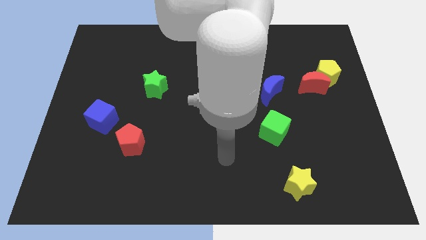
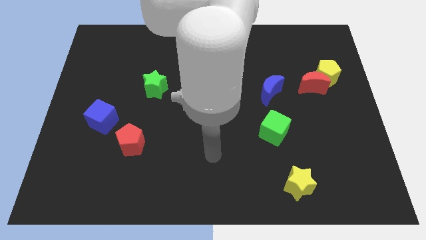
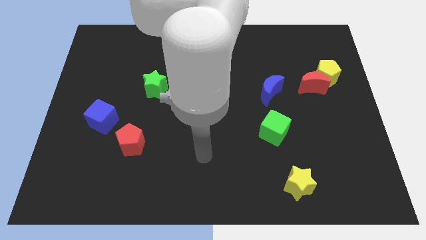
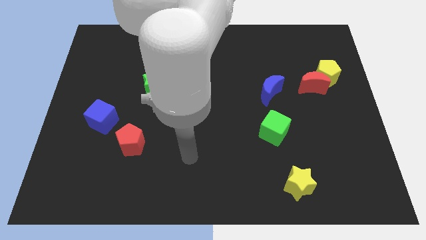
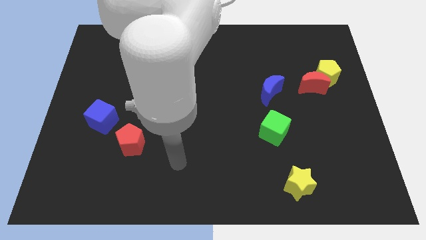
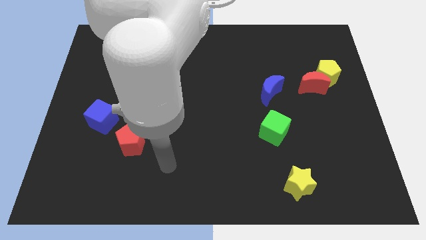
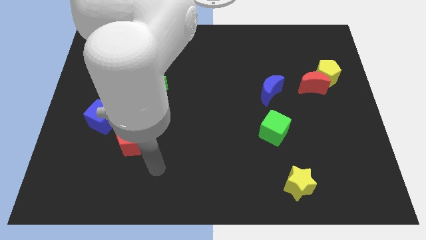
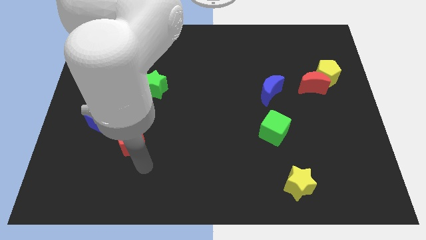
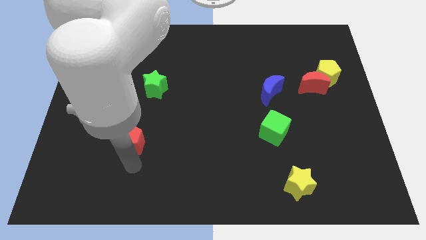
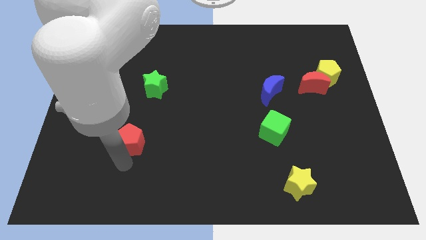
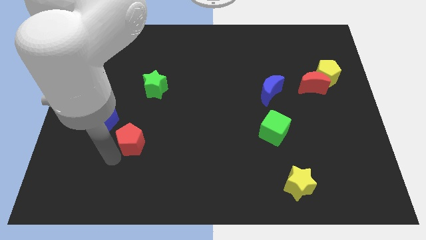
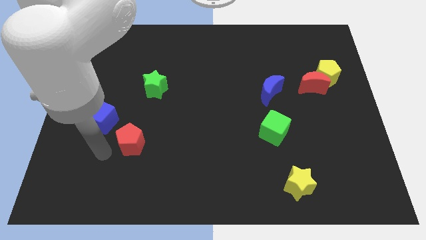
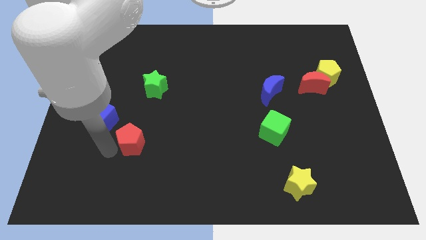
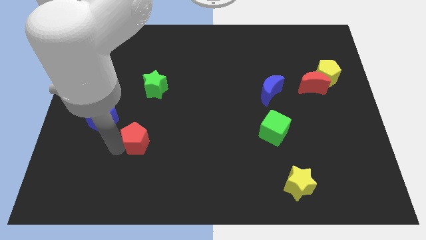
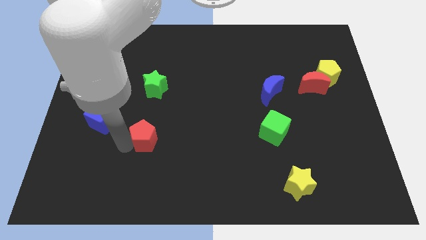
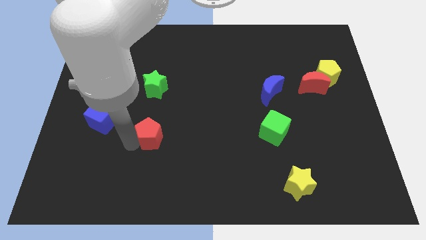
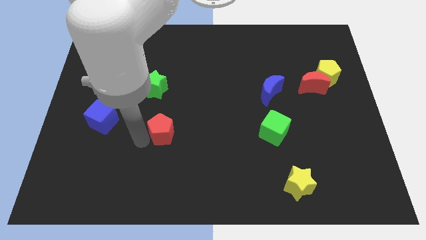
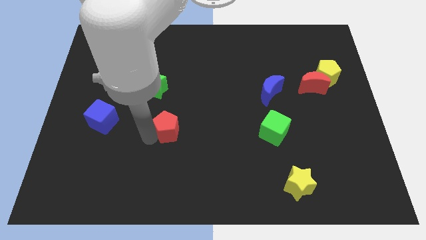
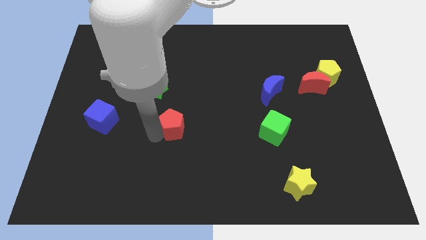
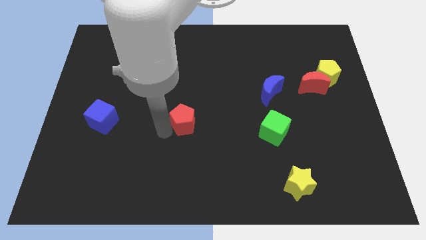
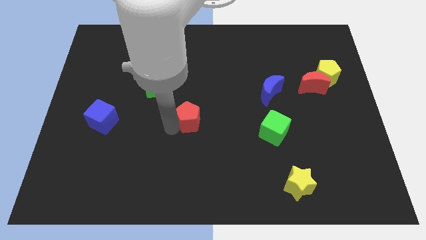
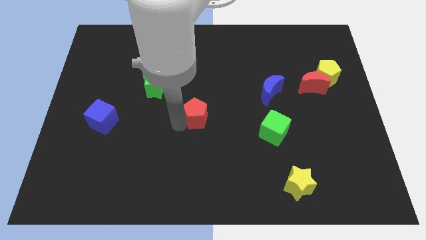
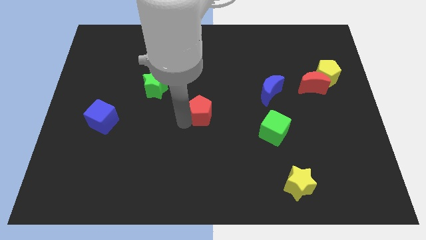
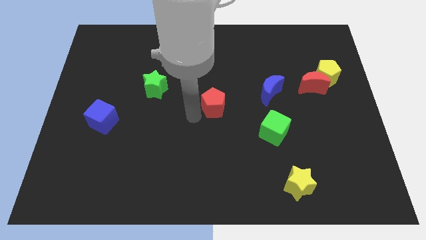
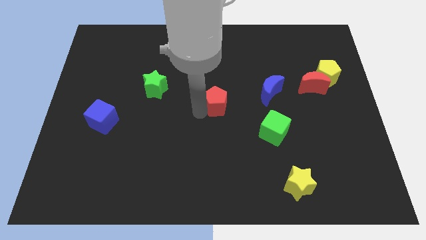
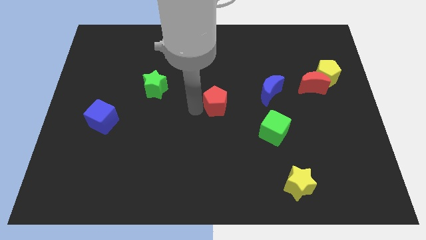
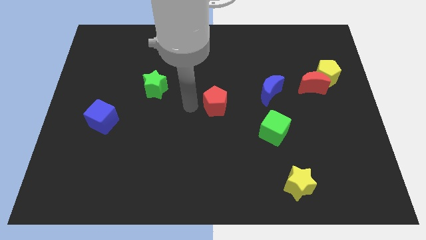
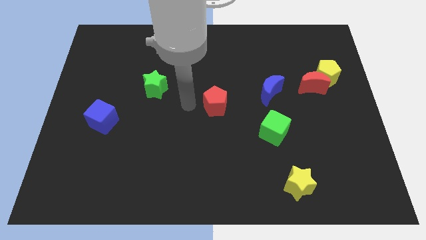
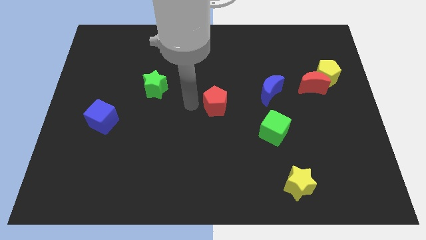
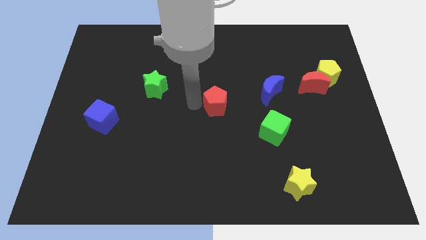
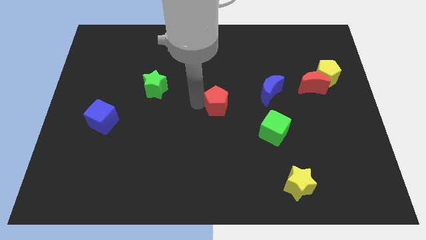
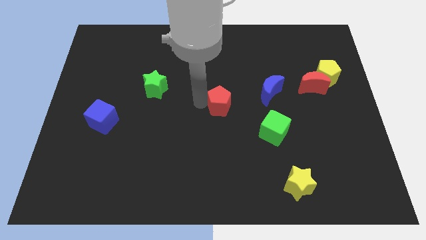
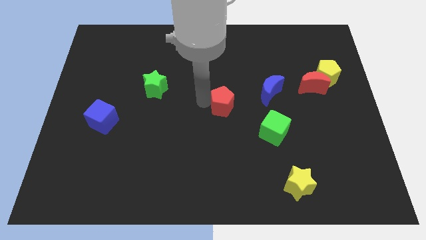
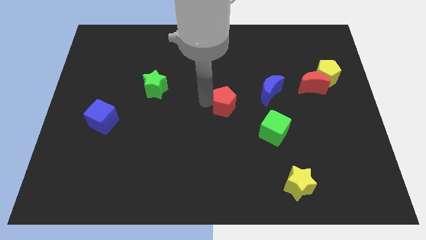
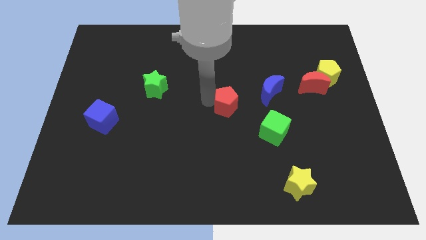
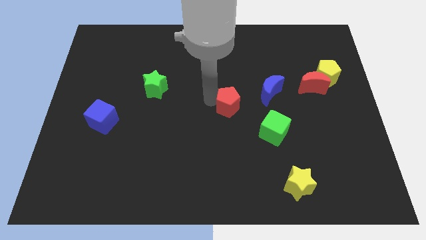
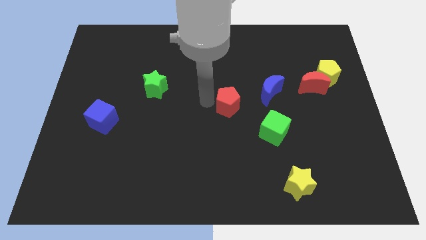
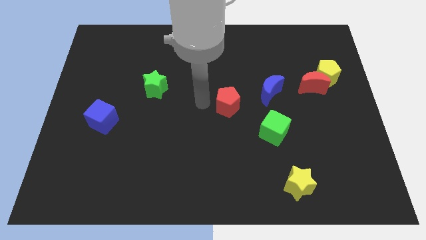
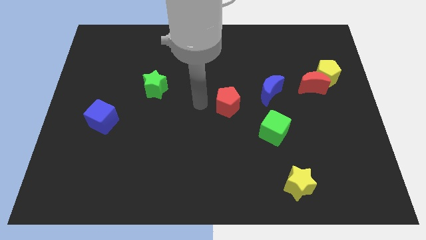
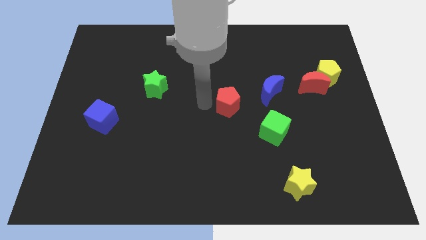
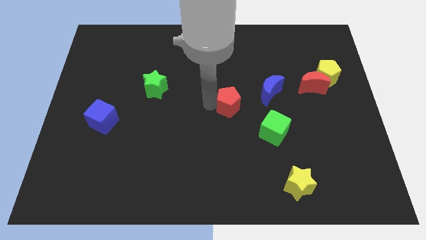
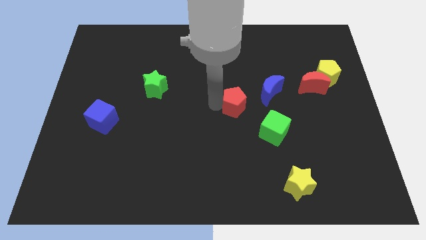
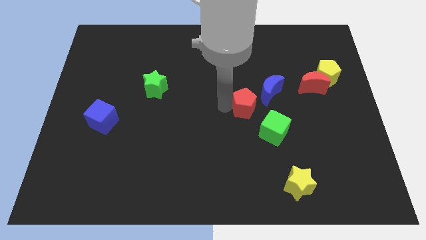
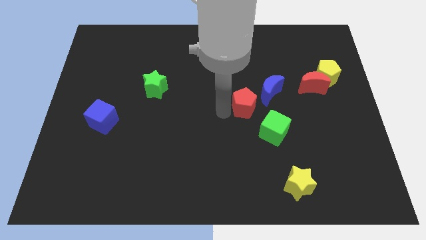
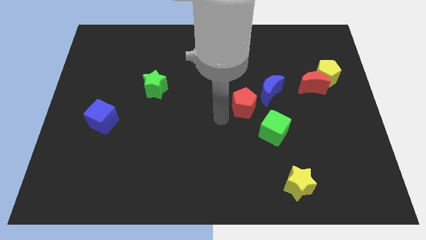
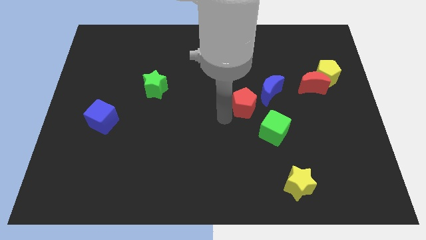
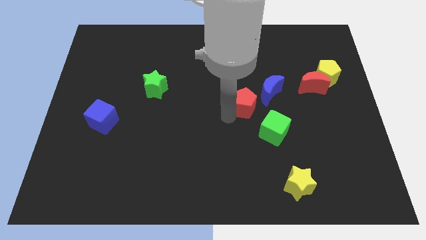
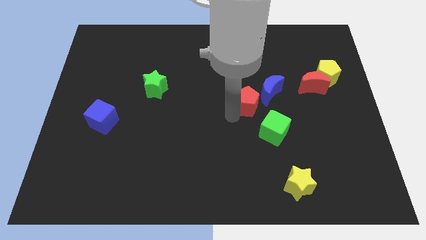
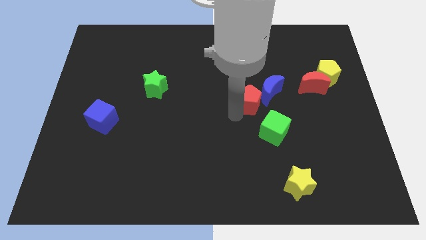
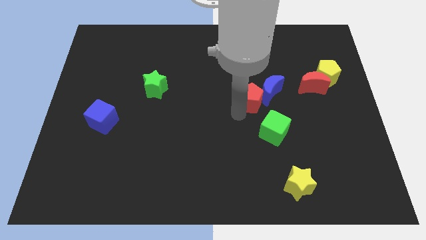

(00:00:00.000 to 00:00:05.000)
slide the red pentagon towards the blue moon

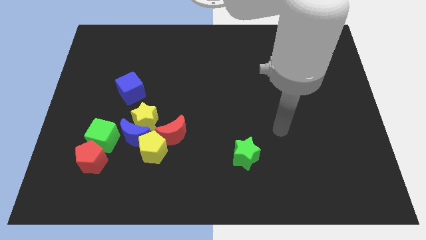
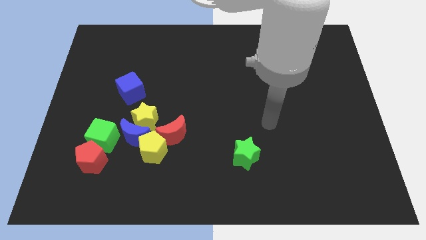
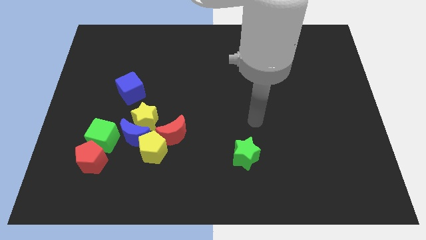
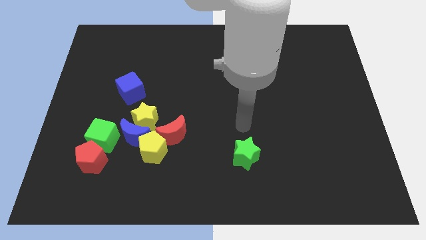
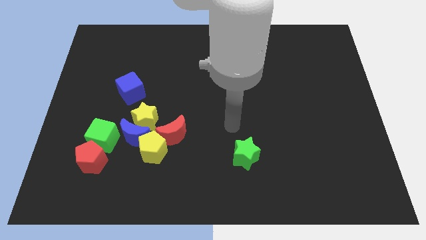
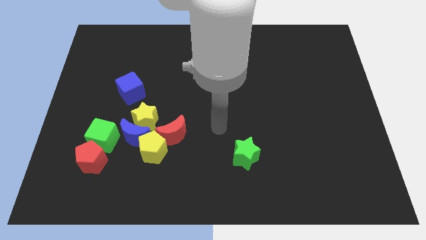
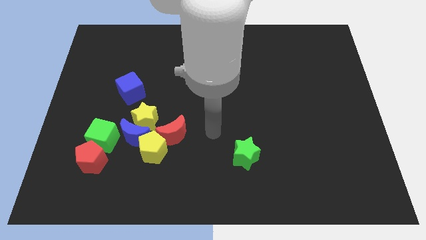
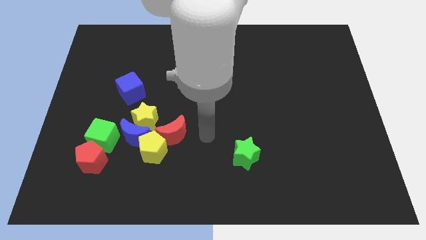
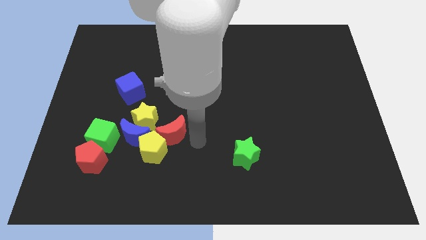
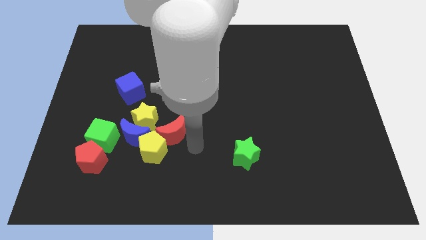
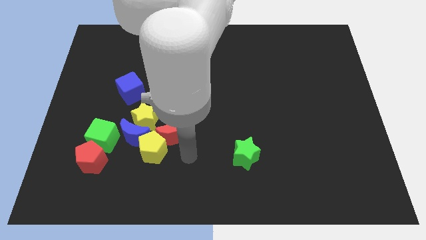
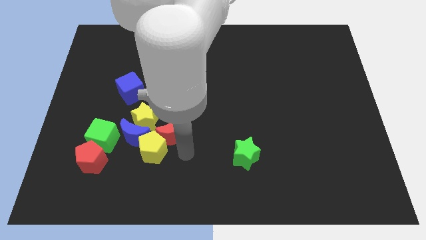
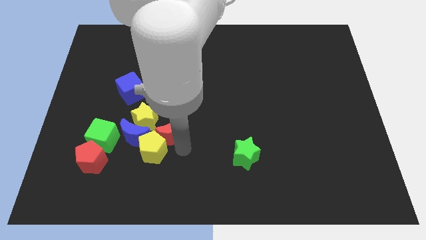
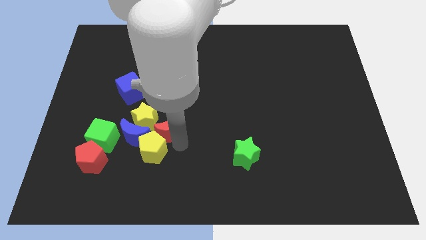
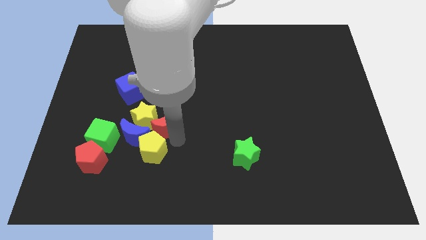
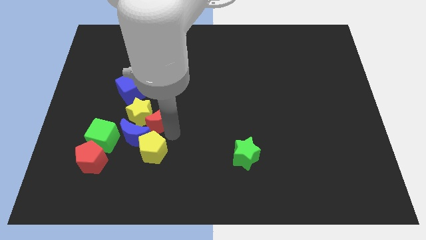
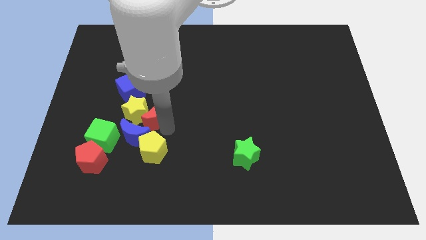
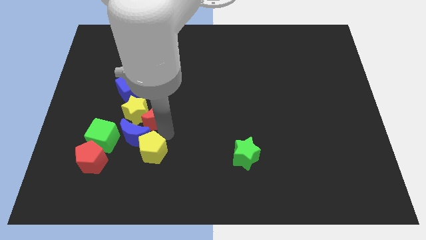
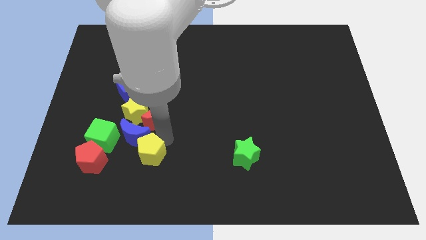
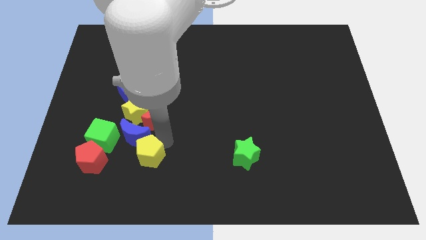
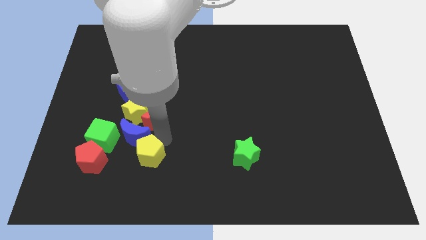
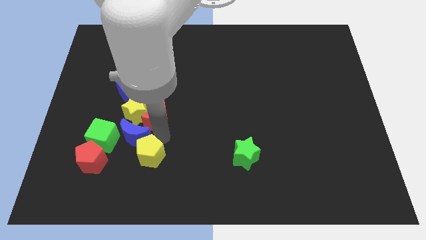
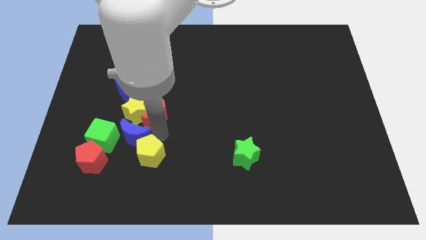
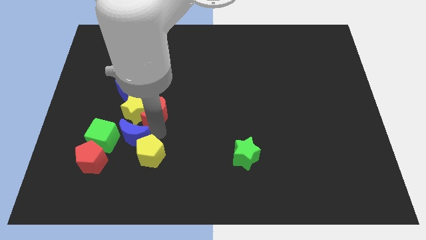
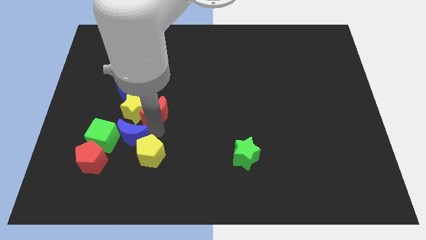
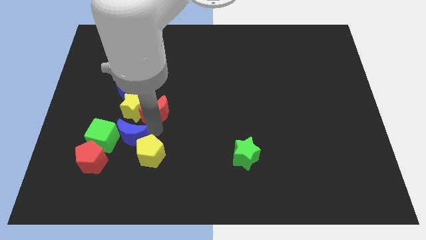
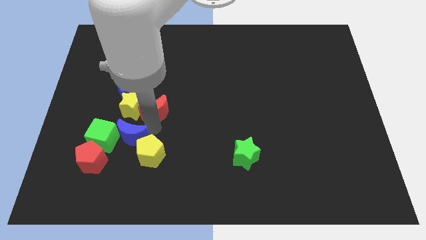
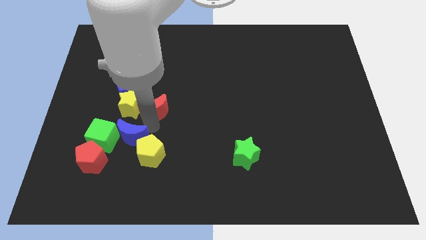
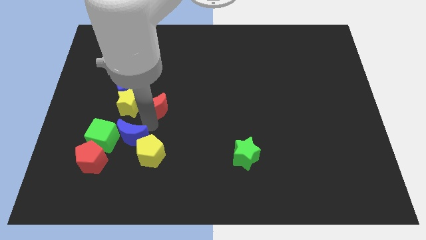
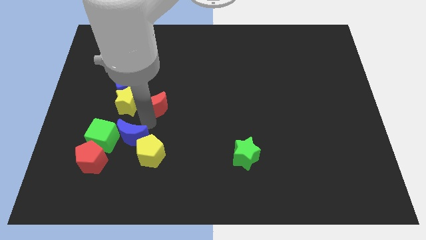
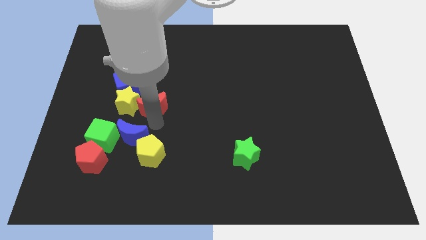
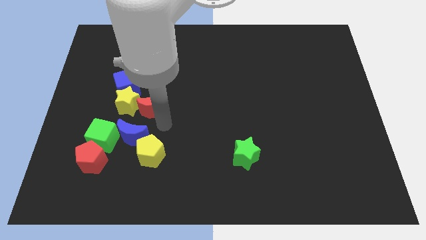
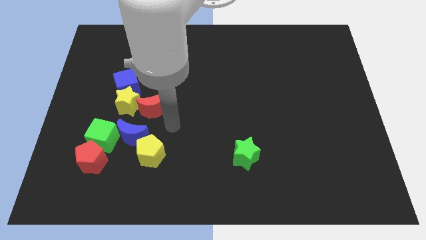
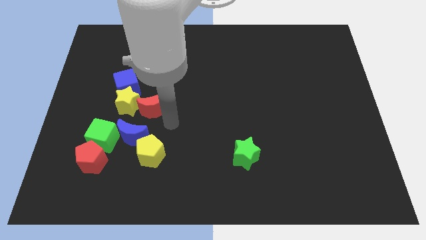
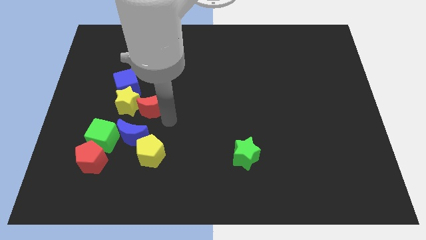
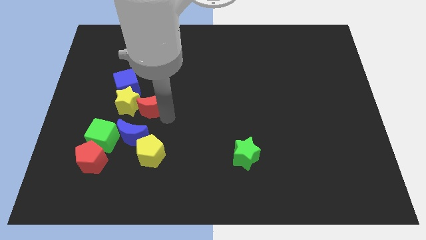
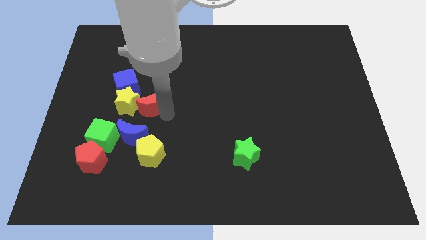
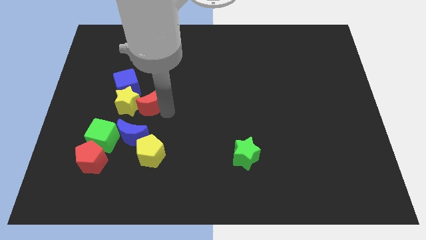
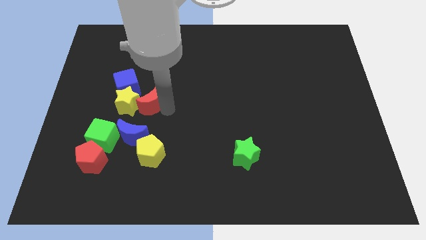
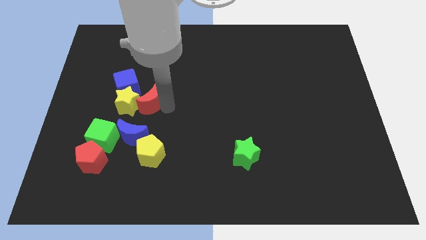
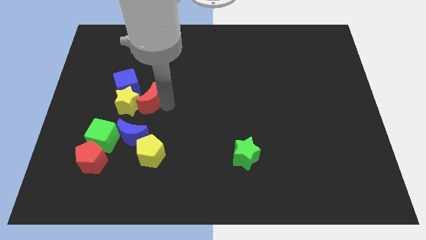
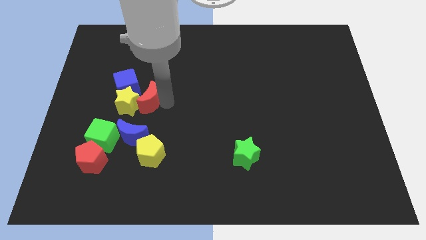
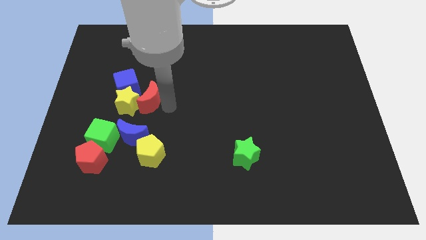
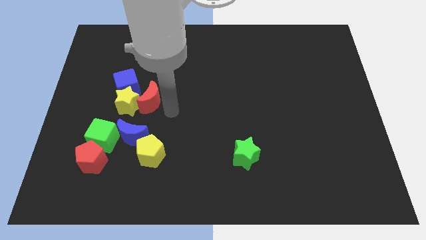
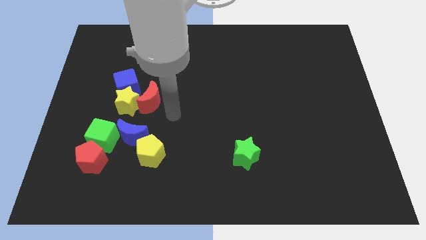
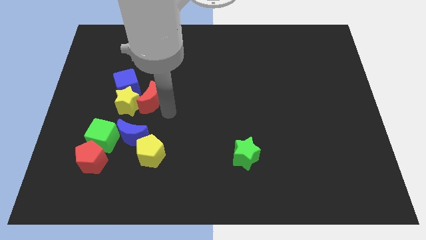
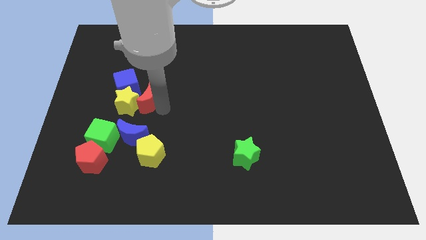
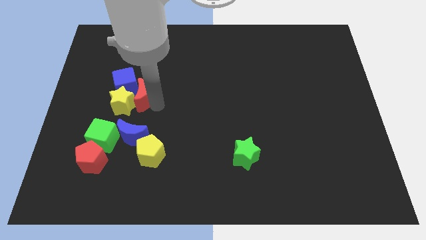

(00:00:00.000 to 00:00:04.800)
move the red moon to the blue cube
